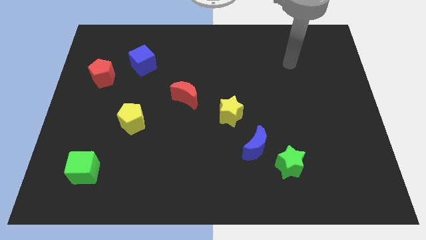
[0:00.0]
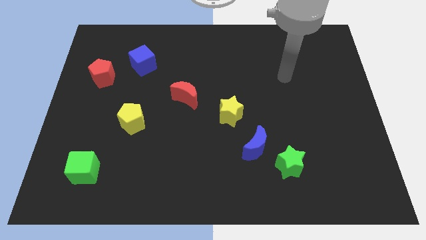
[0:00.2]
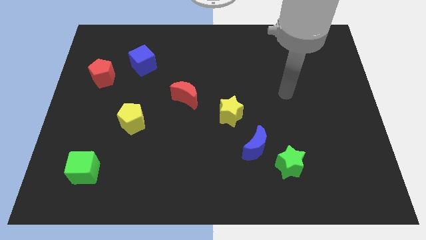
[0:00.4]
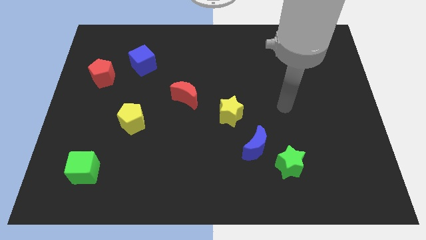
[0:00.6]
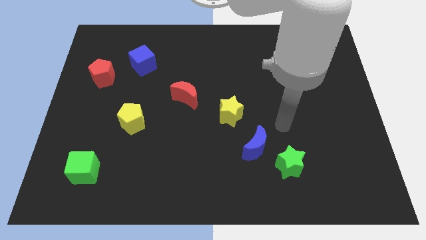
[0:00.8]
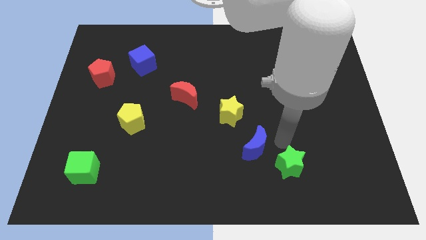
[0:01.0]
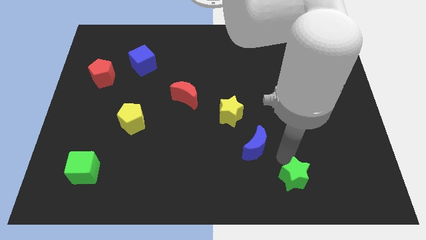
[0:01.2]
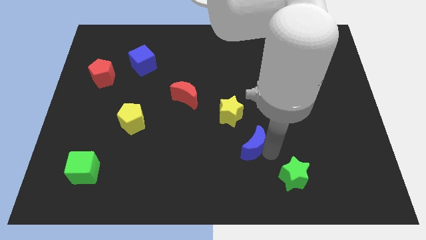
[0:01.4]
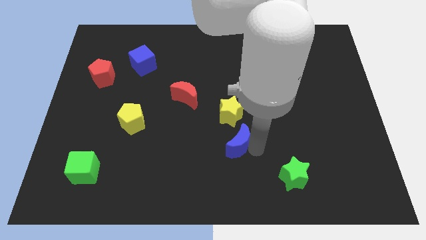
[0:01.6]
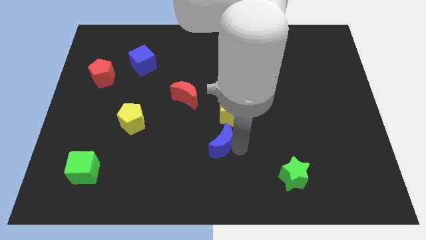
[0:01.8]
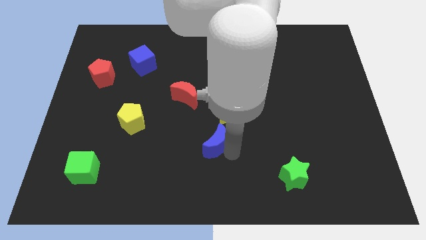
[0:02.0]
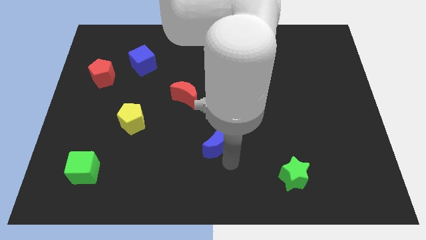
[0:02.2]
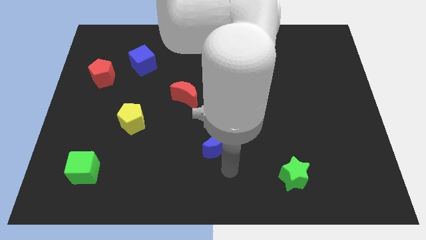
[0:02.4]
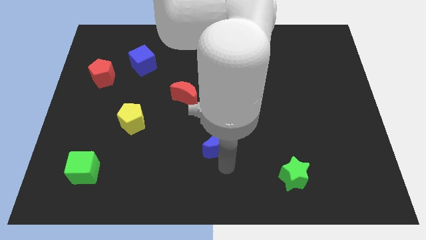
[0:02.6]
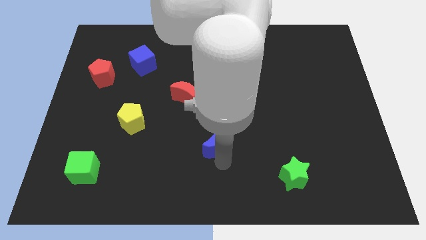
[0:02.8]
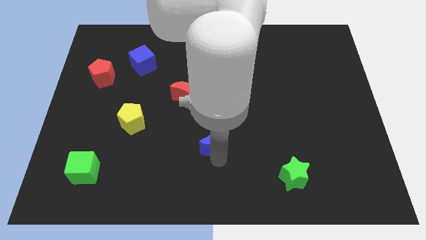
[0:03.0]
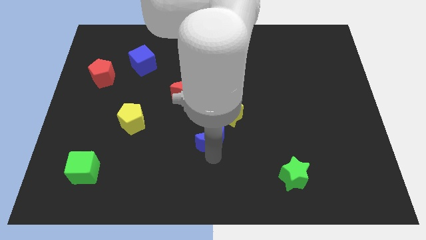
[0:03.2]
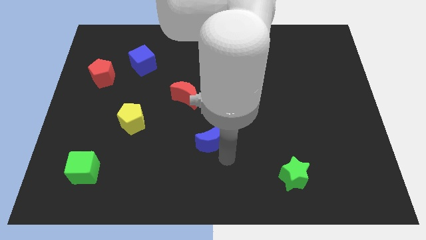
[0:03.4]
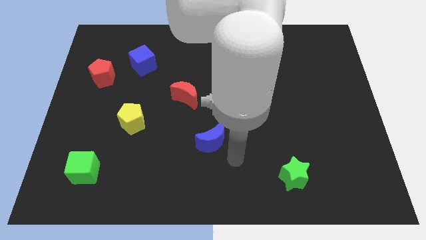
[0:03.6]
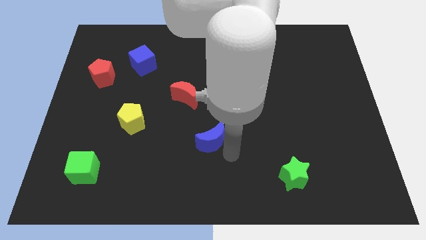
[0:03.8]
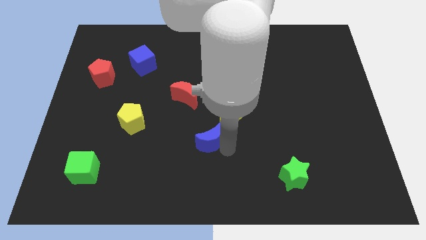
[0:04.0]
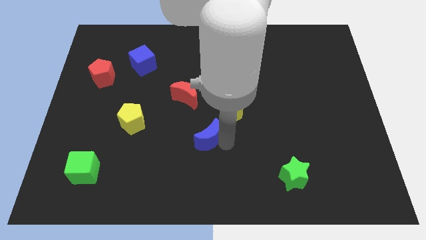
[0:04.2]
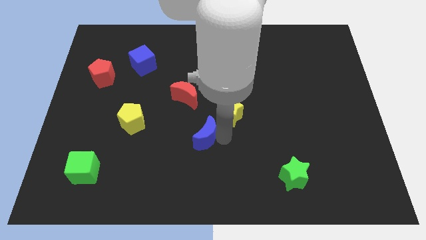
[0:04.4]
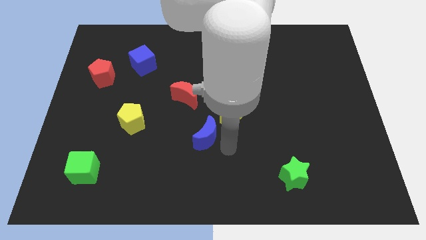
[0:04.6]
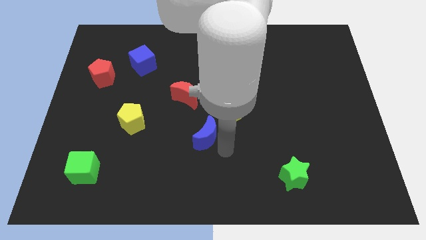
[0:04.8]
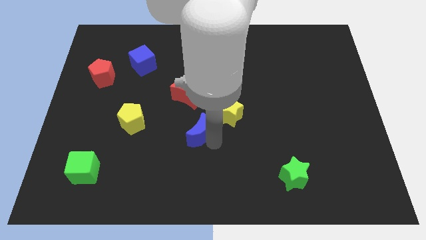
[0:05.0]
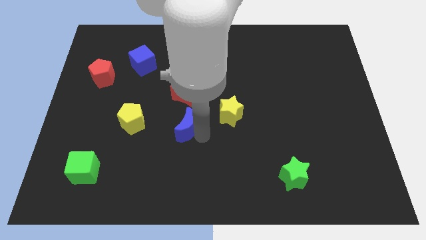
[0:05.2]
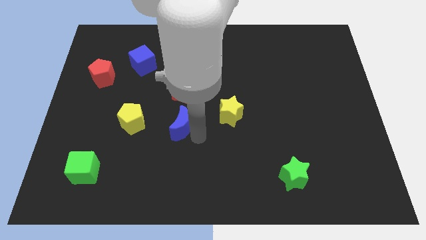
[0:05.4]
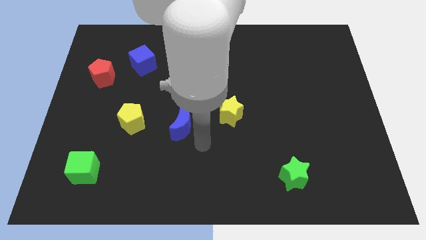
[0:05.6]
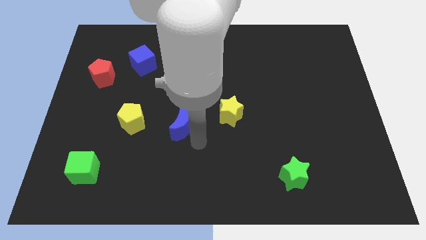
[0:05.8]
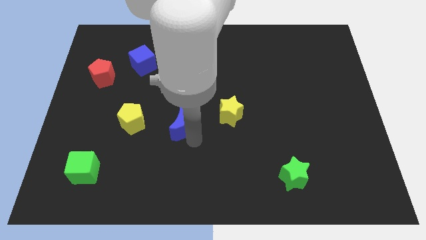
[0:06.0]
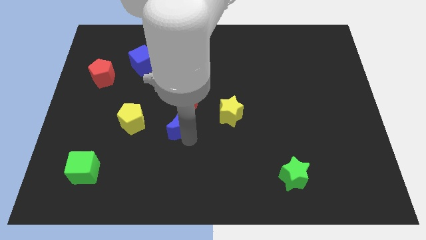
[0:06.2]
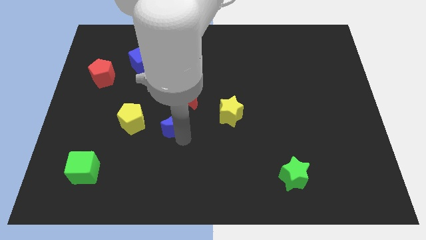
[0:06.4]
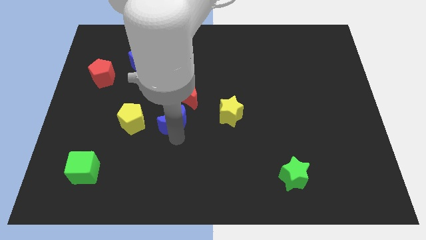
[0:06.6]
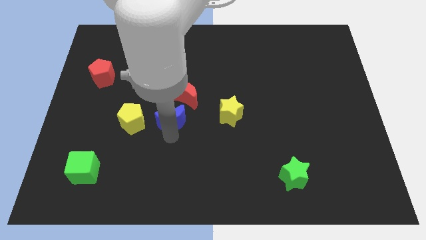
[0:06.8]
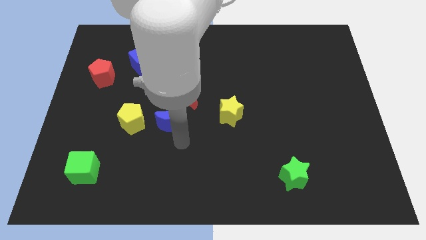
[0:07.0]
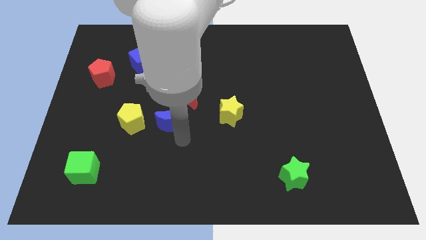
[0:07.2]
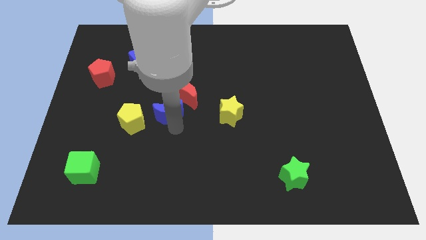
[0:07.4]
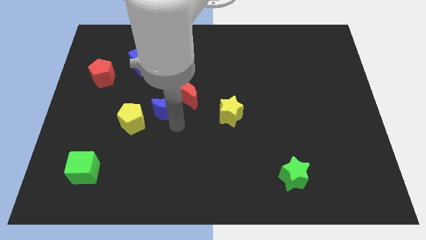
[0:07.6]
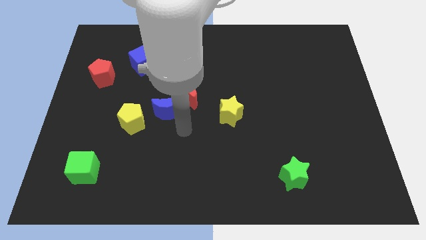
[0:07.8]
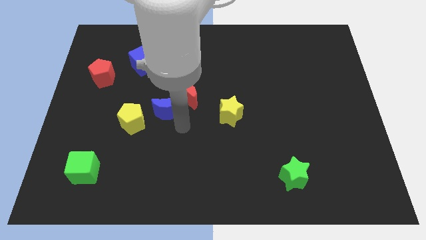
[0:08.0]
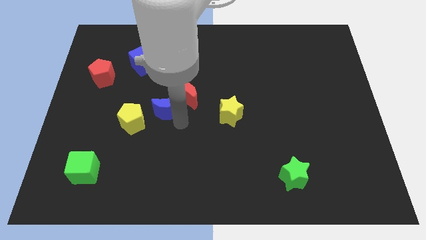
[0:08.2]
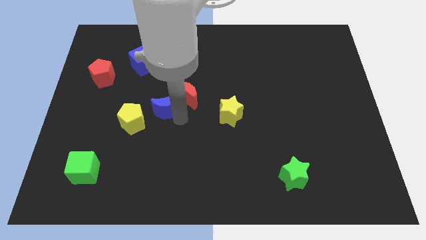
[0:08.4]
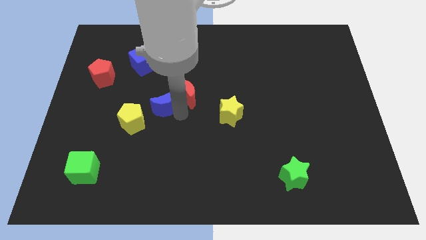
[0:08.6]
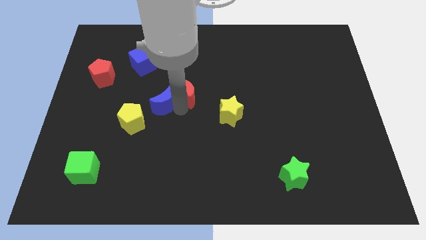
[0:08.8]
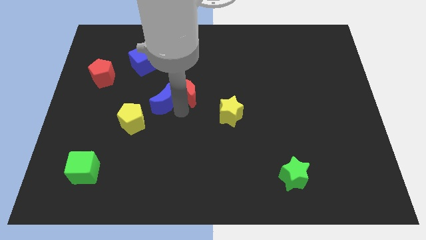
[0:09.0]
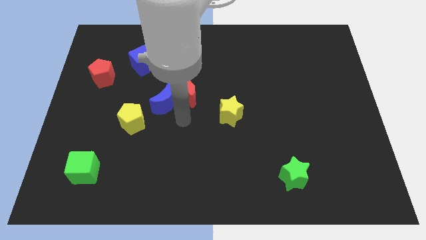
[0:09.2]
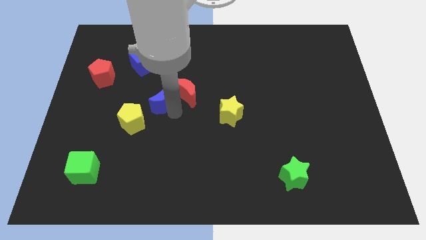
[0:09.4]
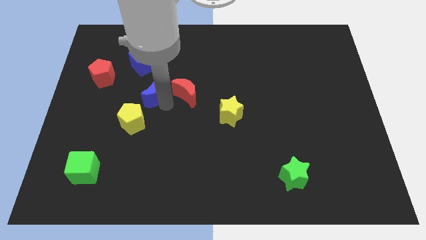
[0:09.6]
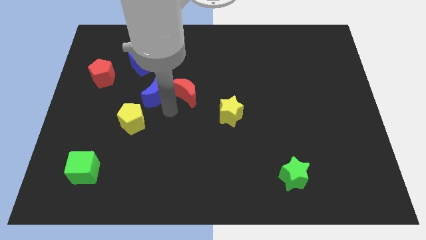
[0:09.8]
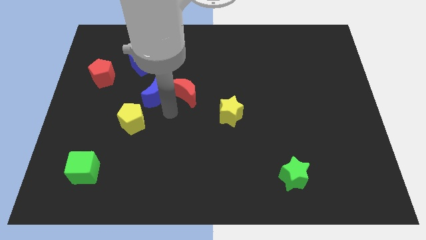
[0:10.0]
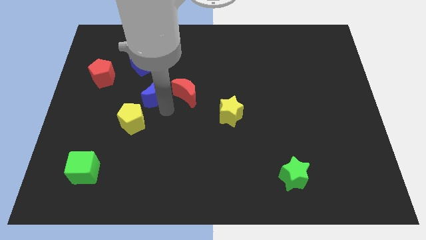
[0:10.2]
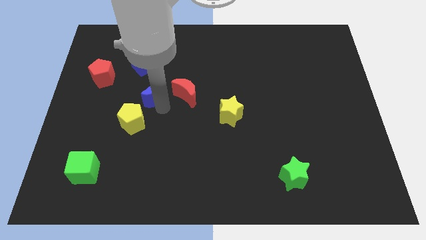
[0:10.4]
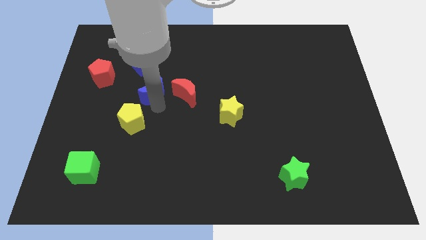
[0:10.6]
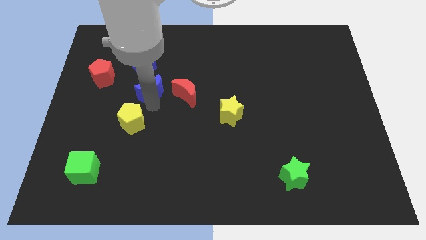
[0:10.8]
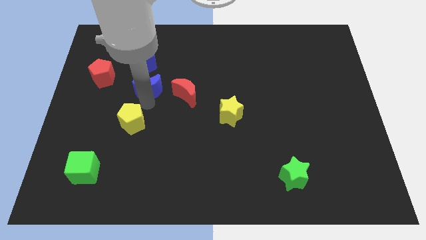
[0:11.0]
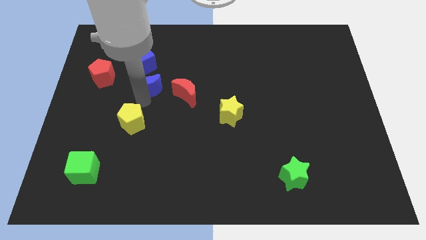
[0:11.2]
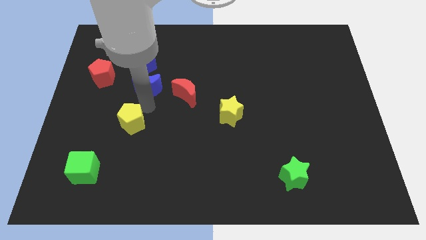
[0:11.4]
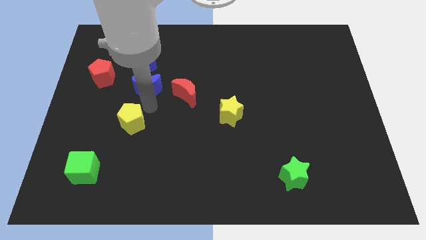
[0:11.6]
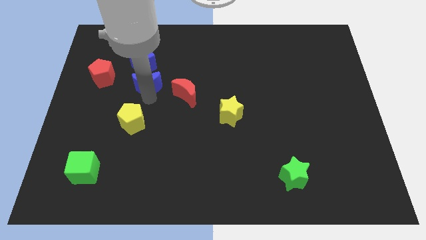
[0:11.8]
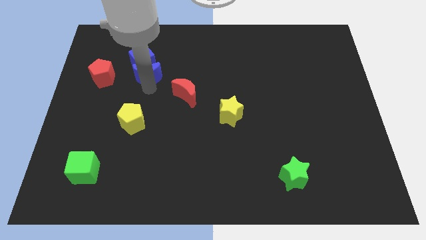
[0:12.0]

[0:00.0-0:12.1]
put the blue moon towards the blue cube
